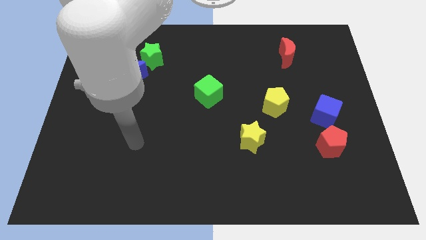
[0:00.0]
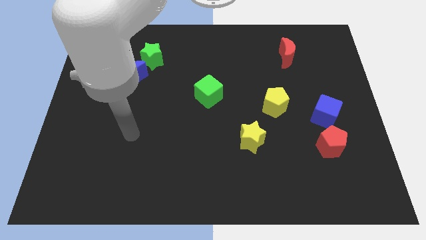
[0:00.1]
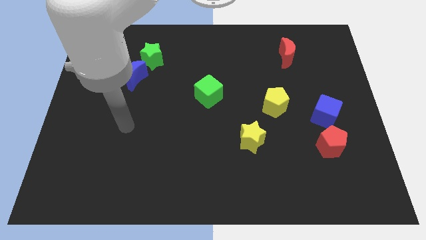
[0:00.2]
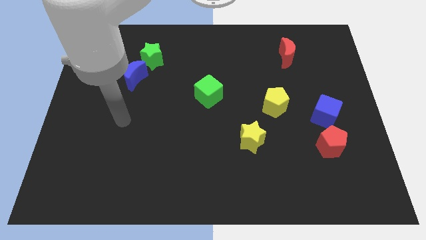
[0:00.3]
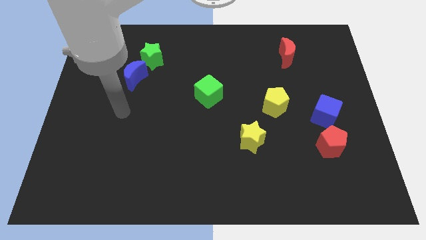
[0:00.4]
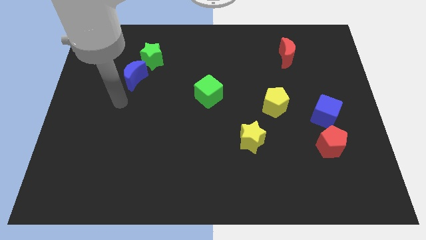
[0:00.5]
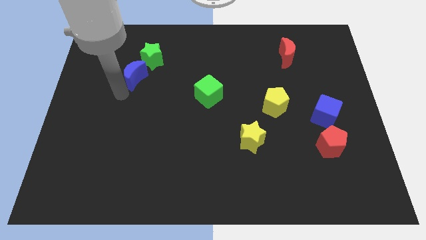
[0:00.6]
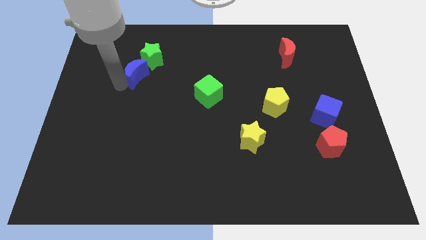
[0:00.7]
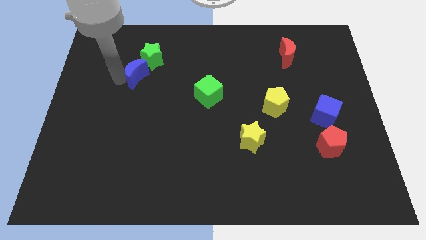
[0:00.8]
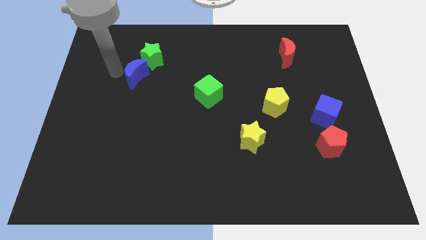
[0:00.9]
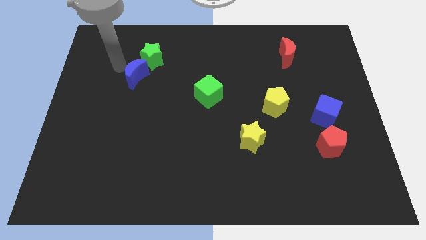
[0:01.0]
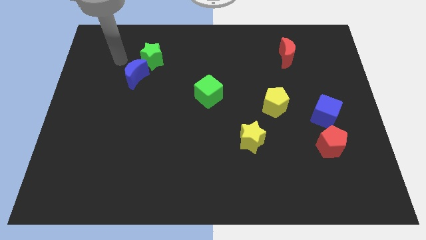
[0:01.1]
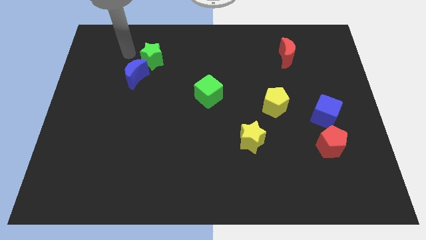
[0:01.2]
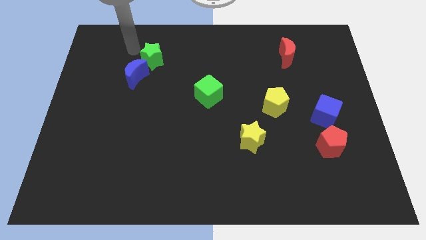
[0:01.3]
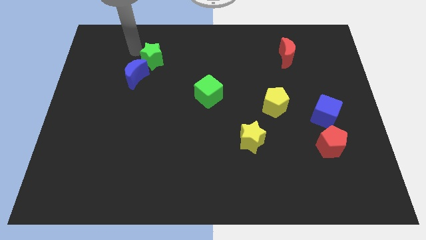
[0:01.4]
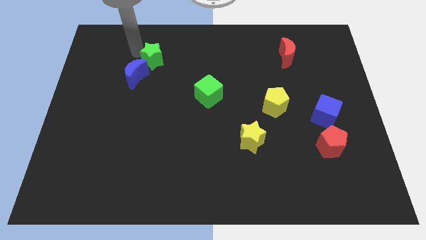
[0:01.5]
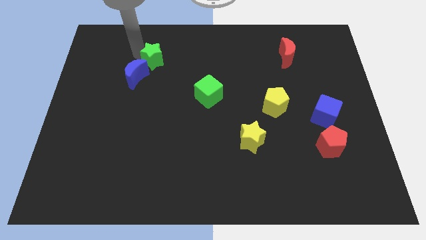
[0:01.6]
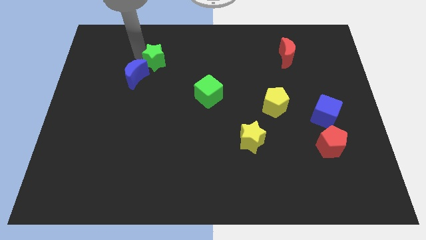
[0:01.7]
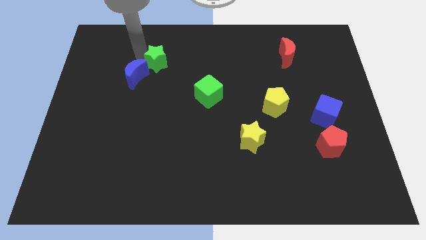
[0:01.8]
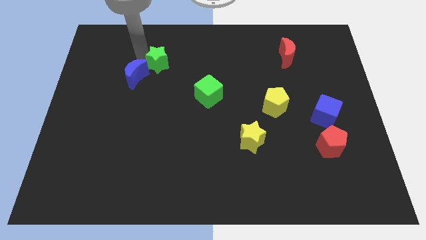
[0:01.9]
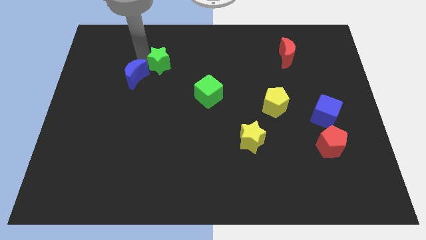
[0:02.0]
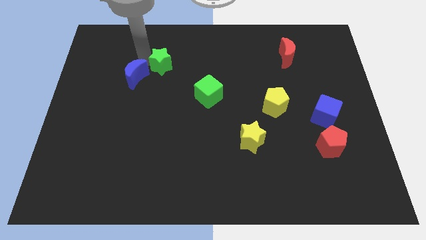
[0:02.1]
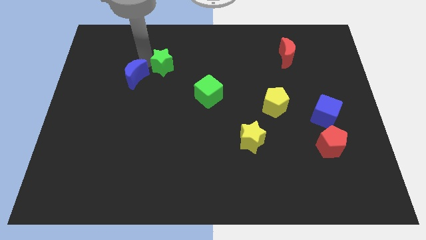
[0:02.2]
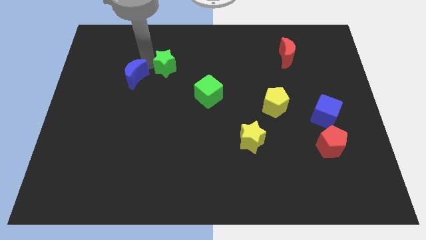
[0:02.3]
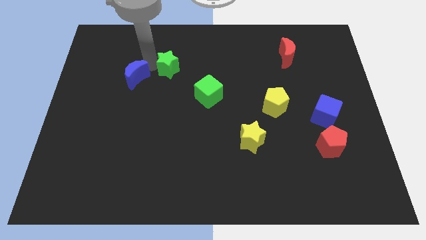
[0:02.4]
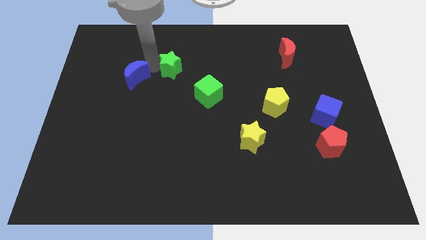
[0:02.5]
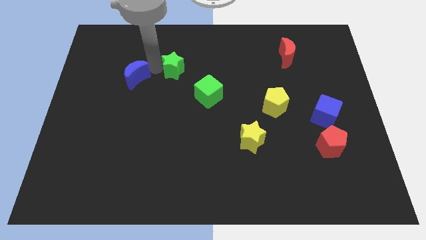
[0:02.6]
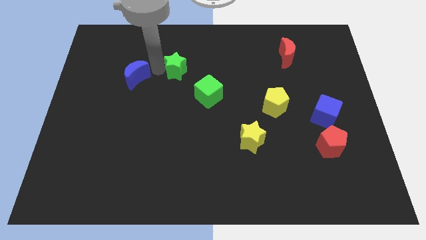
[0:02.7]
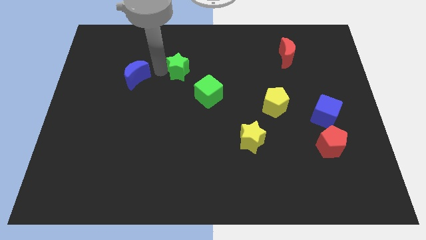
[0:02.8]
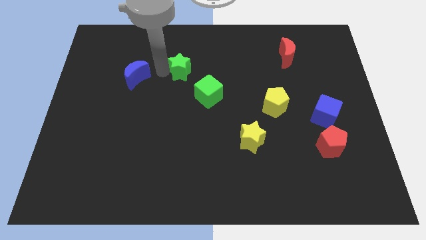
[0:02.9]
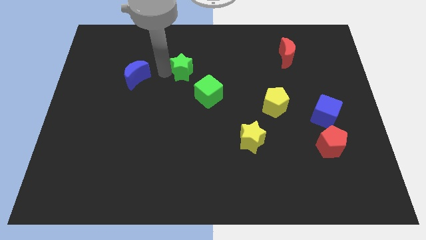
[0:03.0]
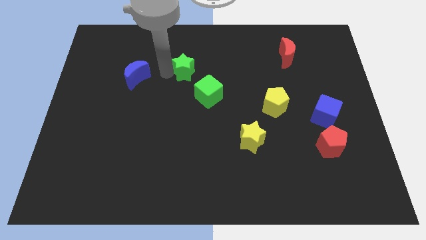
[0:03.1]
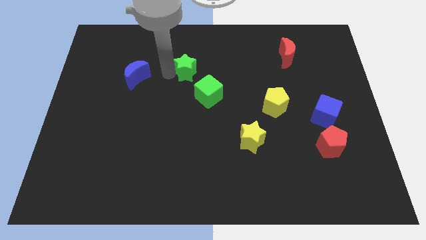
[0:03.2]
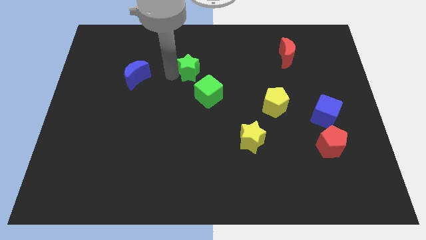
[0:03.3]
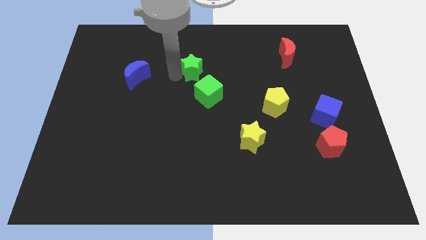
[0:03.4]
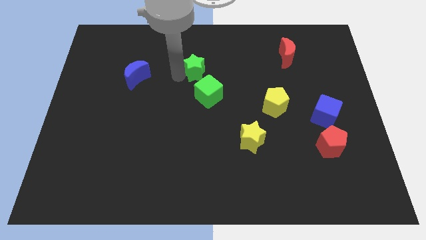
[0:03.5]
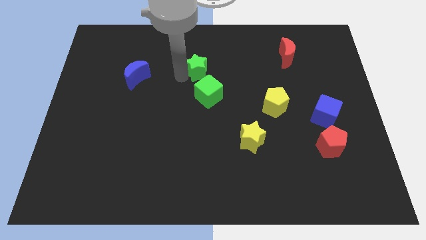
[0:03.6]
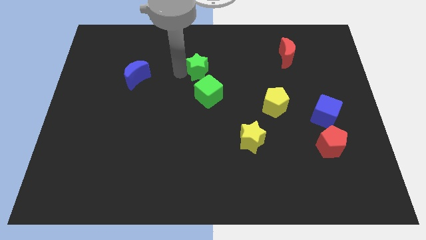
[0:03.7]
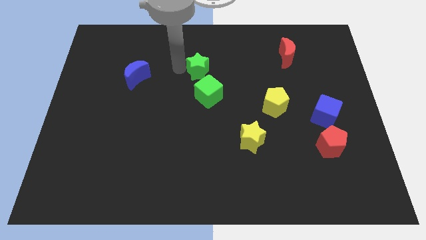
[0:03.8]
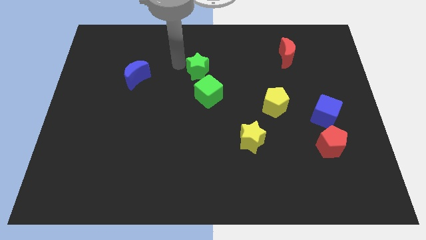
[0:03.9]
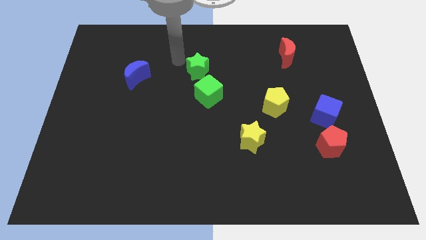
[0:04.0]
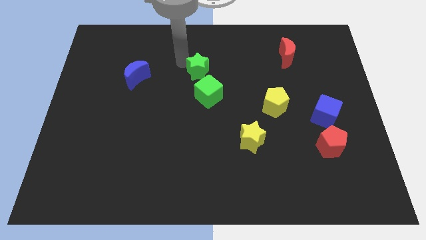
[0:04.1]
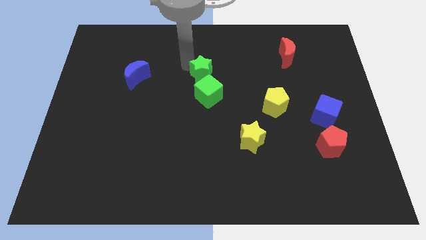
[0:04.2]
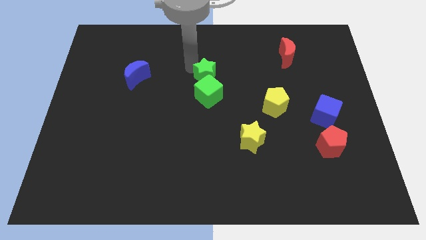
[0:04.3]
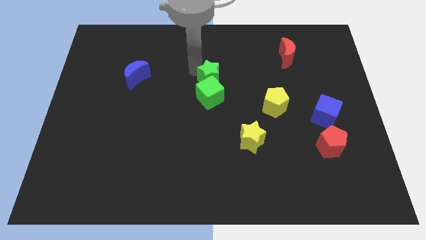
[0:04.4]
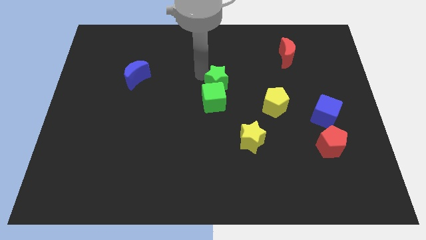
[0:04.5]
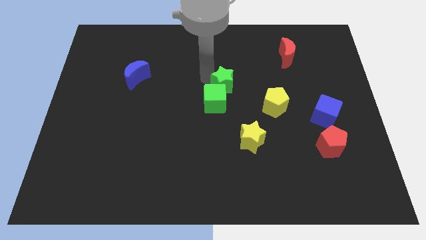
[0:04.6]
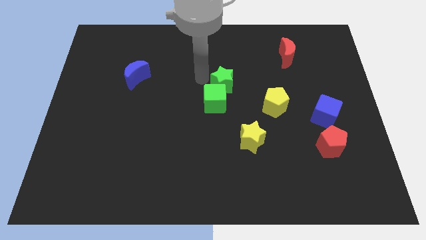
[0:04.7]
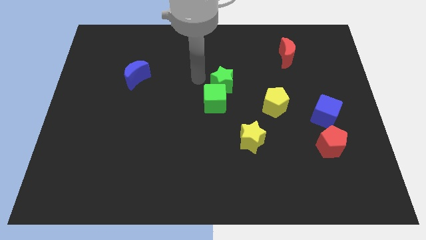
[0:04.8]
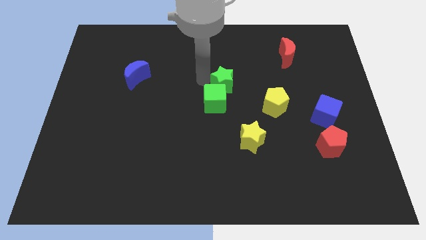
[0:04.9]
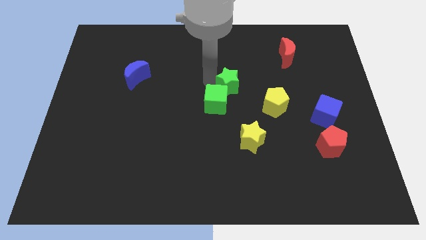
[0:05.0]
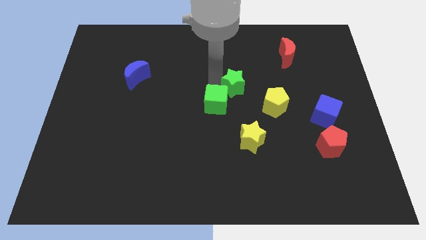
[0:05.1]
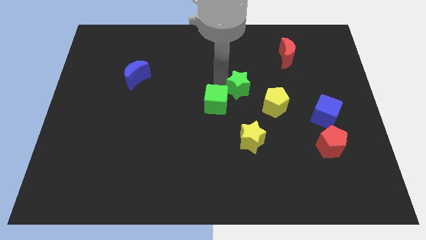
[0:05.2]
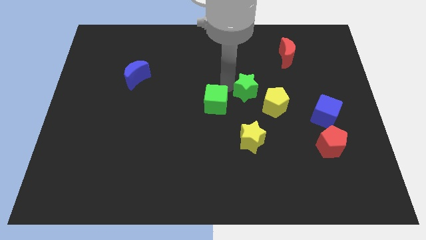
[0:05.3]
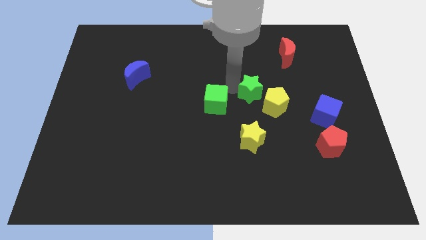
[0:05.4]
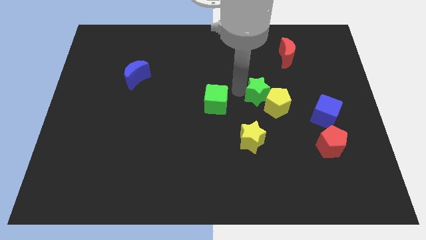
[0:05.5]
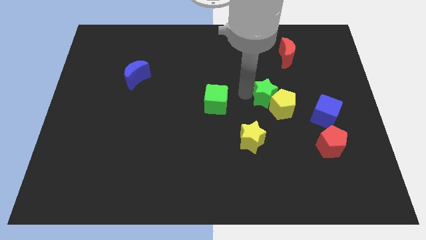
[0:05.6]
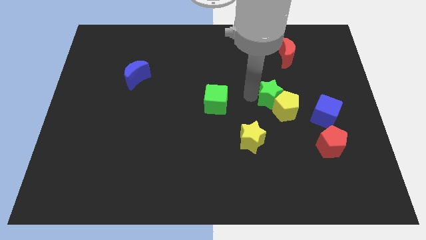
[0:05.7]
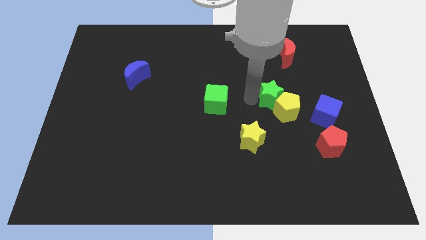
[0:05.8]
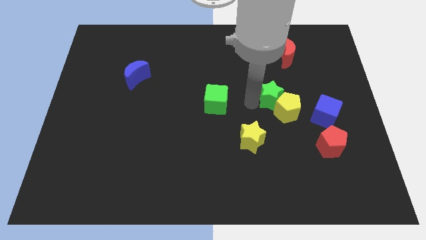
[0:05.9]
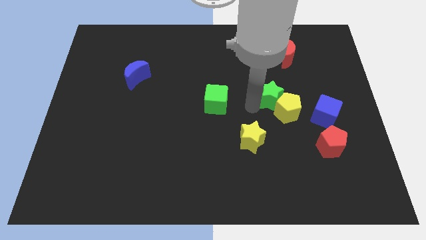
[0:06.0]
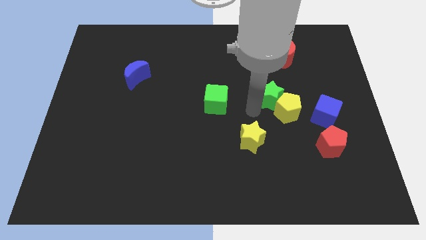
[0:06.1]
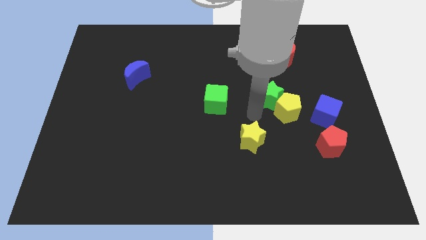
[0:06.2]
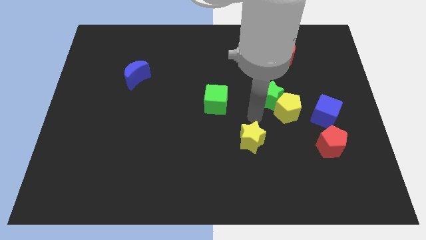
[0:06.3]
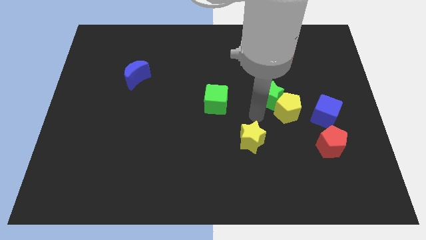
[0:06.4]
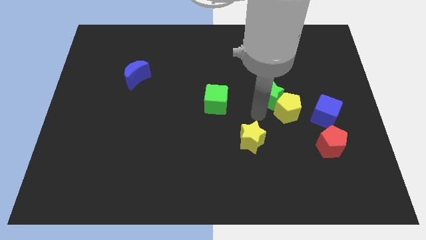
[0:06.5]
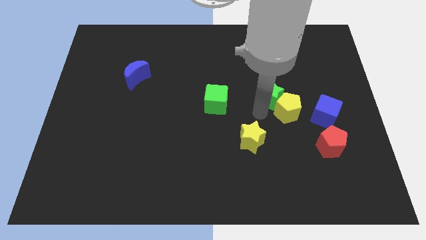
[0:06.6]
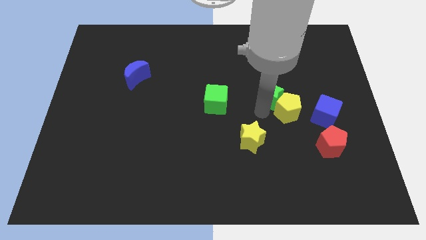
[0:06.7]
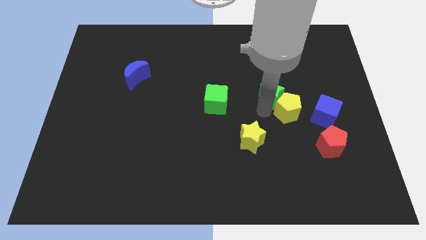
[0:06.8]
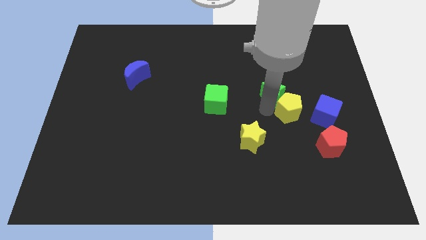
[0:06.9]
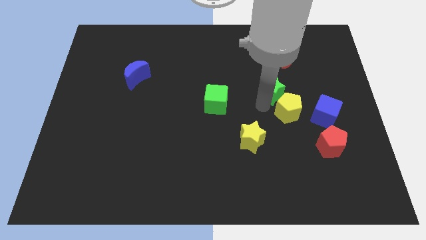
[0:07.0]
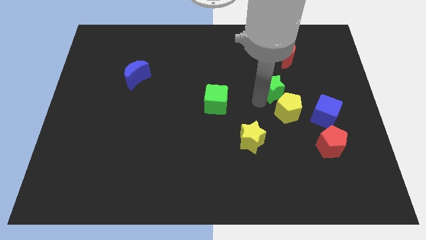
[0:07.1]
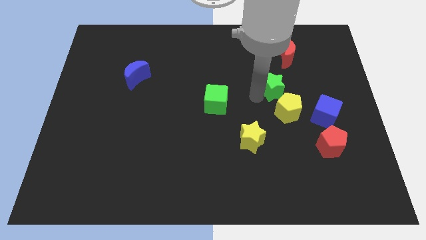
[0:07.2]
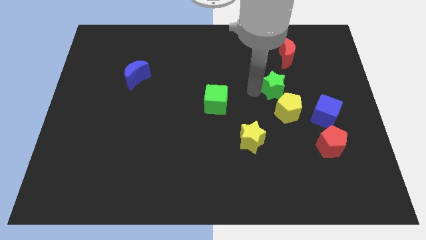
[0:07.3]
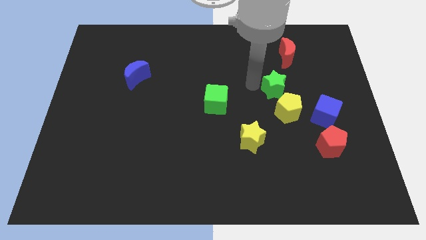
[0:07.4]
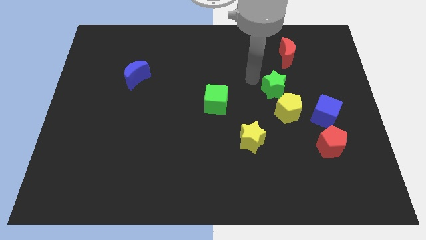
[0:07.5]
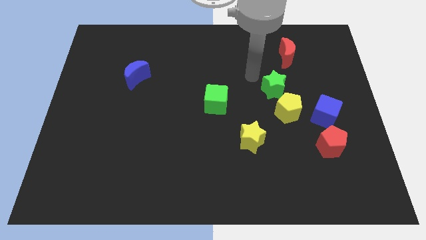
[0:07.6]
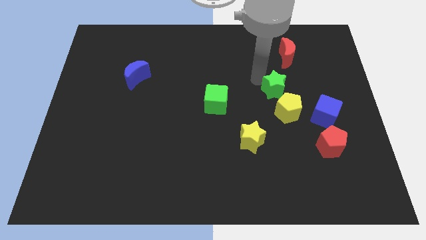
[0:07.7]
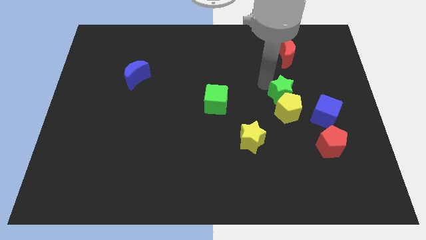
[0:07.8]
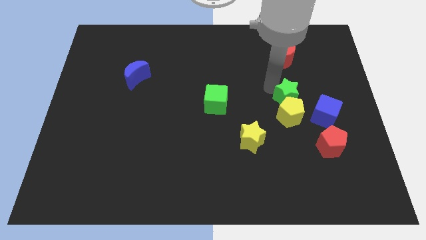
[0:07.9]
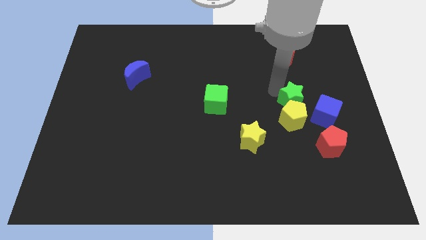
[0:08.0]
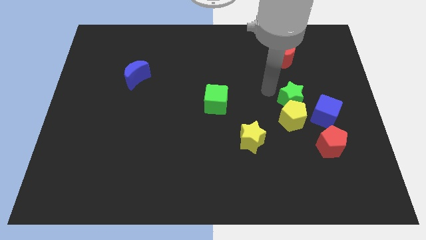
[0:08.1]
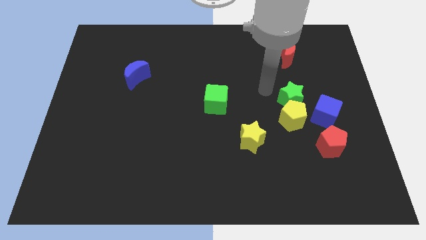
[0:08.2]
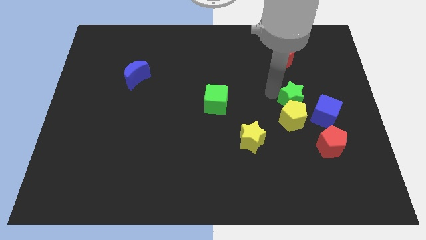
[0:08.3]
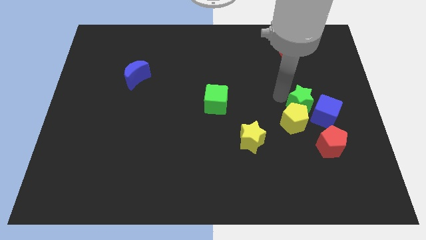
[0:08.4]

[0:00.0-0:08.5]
push the green star towards the blue cube
